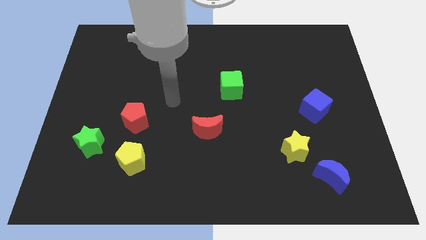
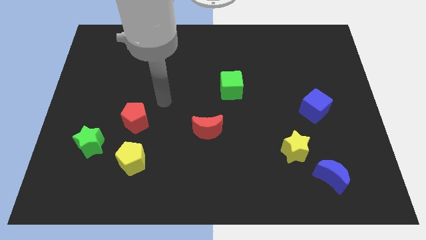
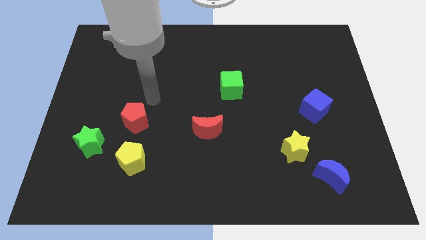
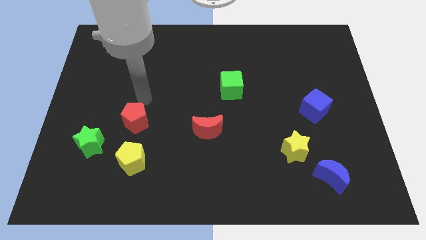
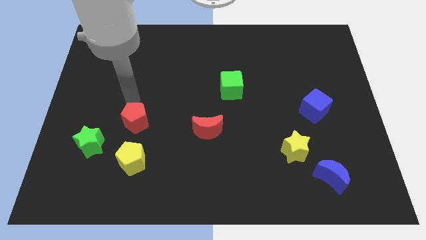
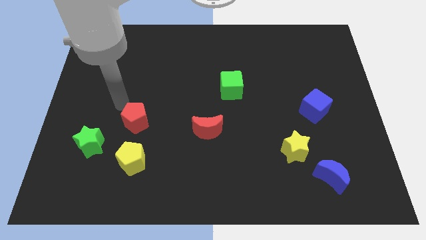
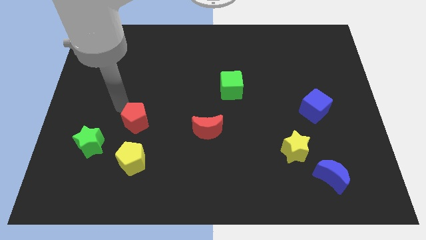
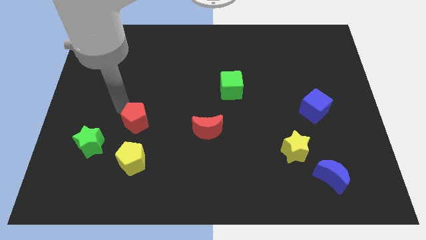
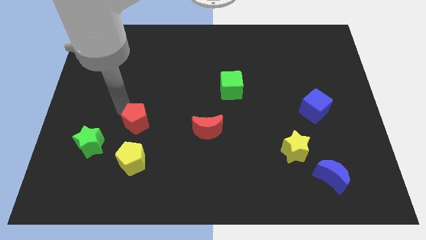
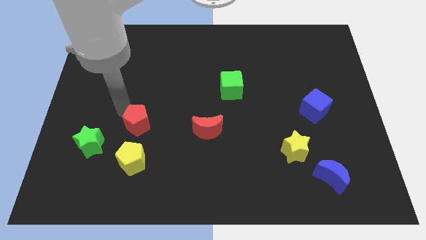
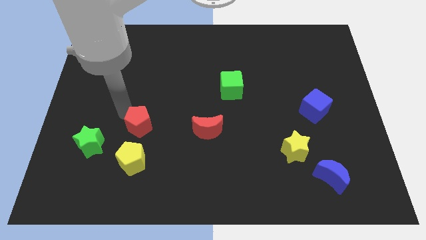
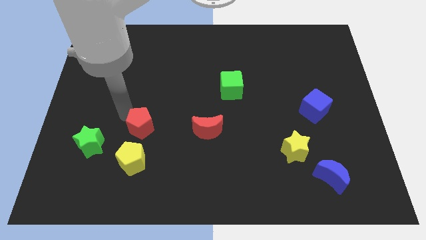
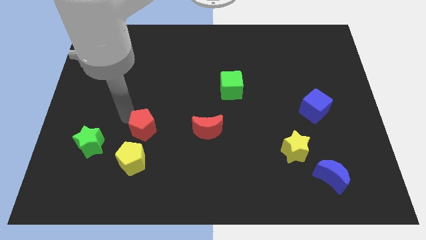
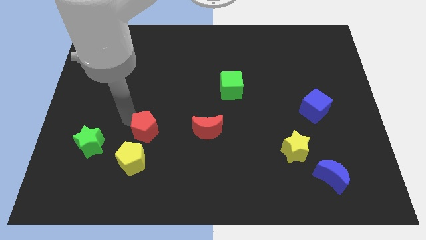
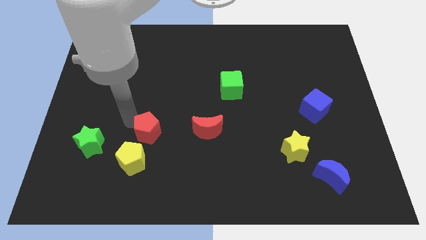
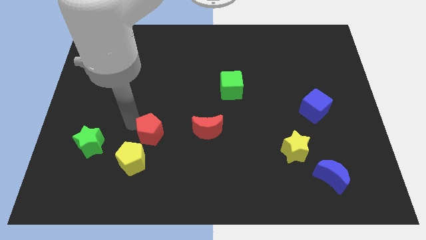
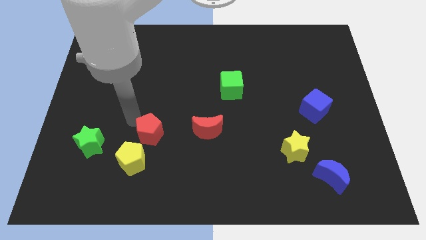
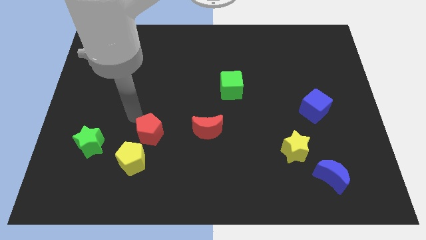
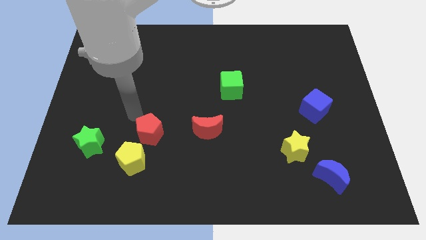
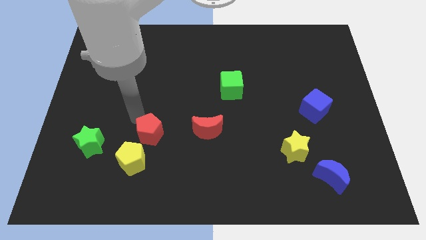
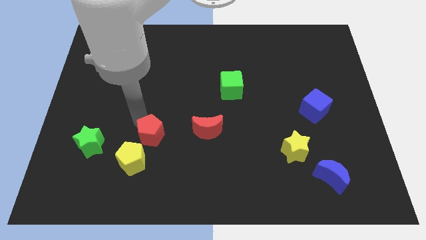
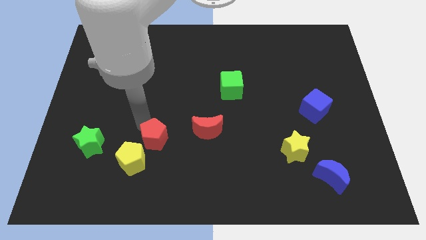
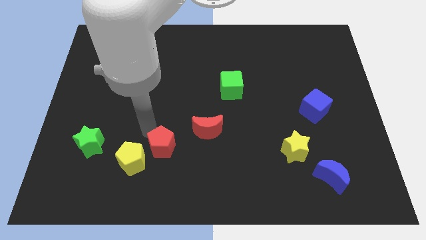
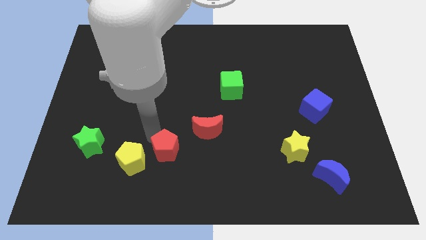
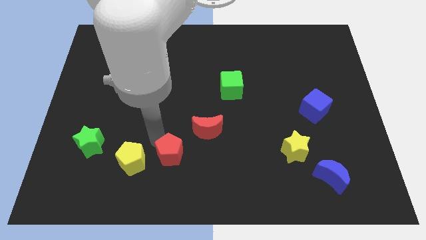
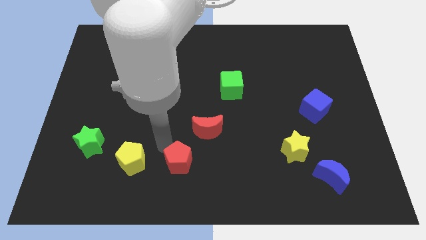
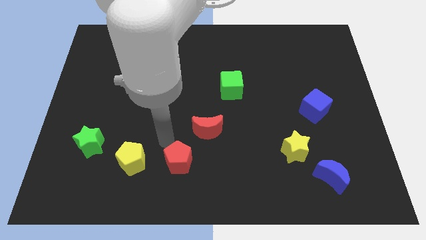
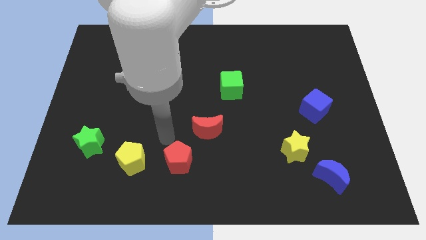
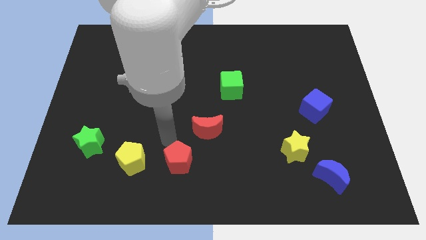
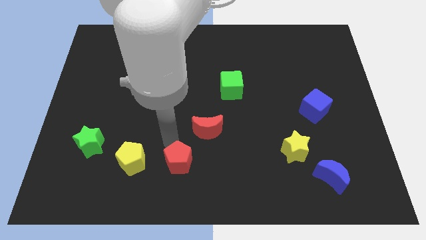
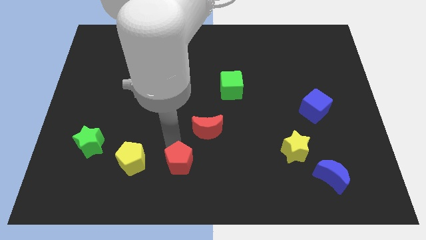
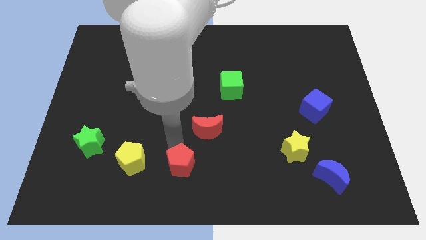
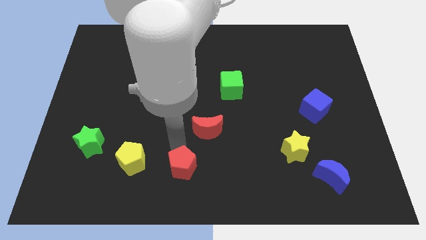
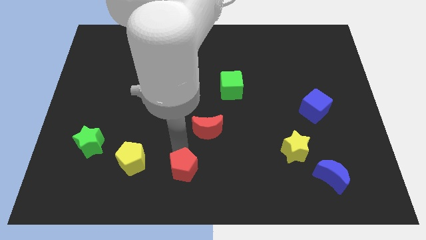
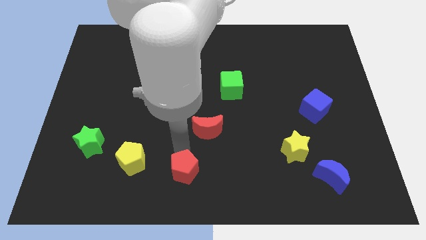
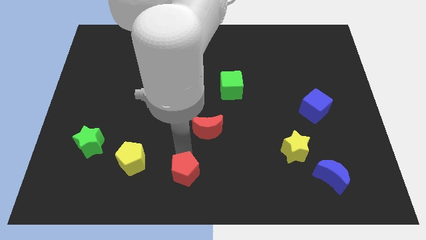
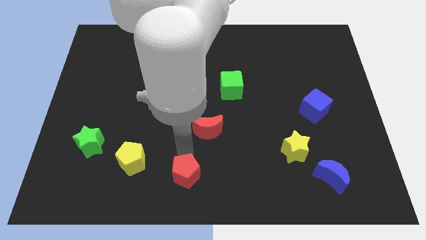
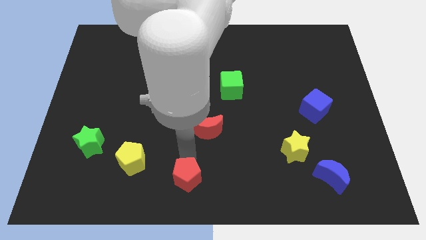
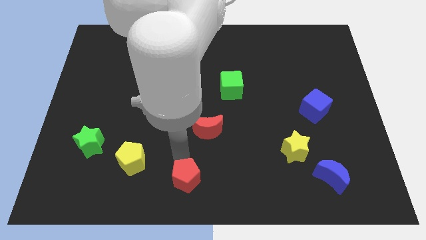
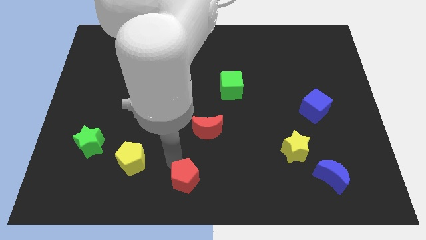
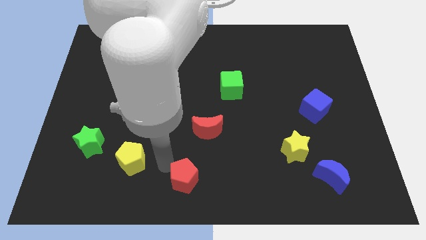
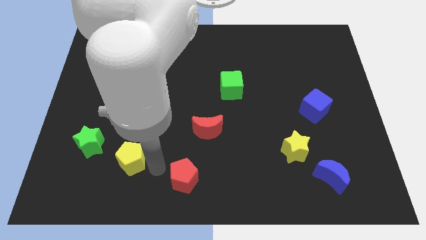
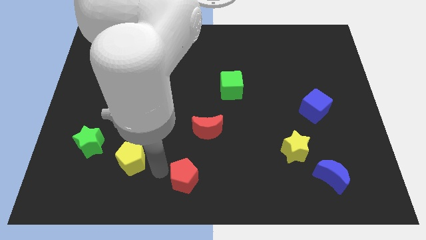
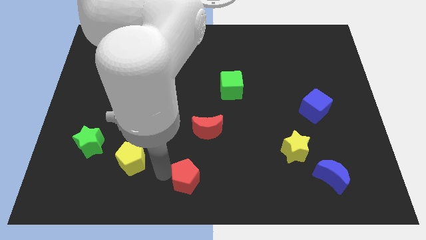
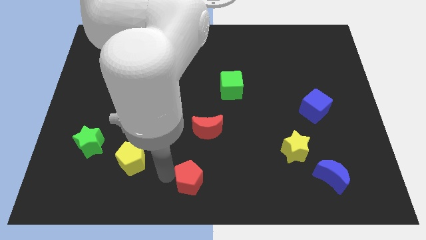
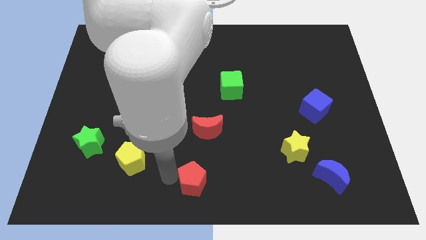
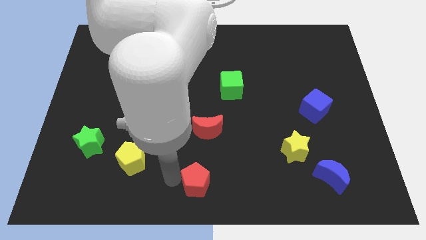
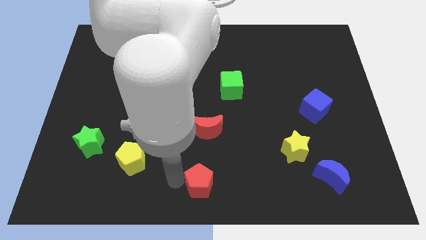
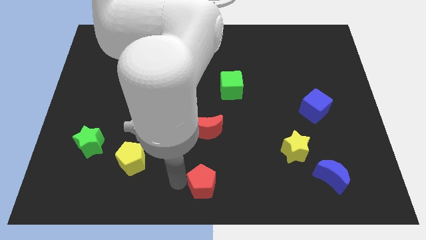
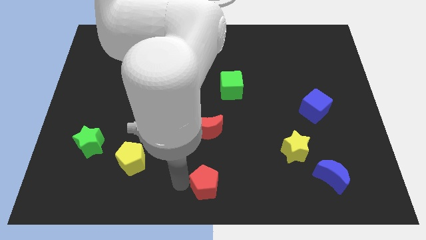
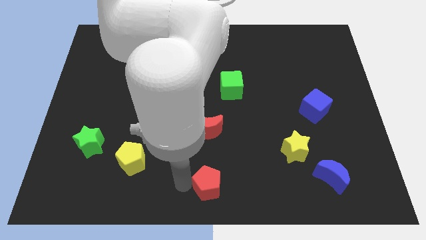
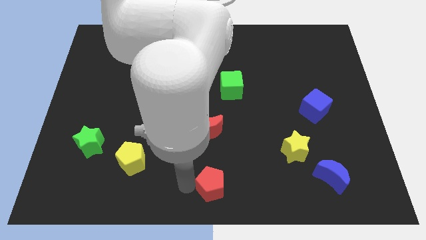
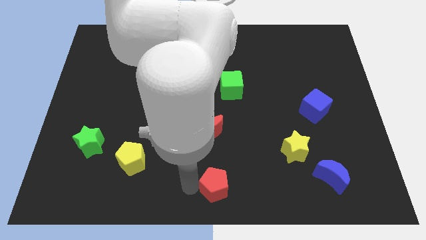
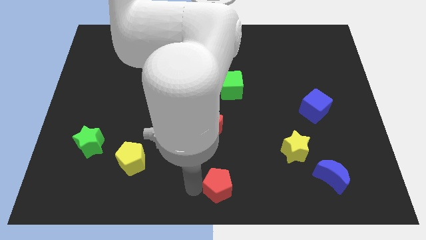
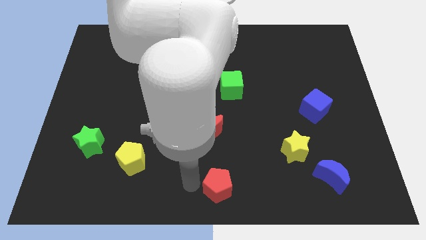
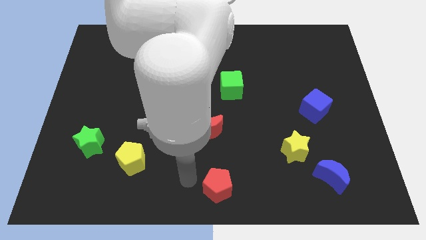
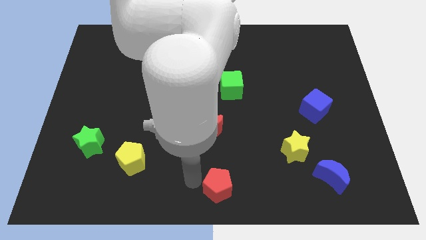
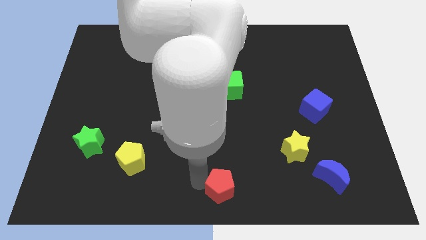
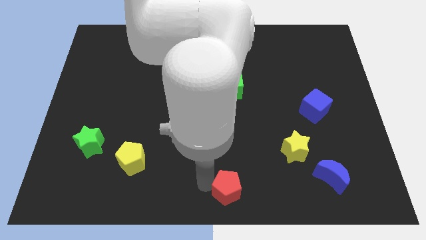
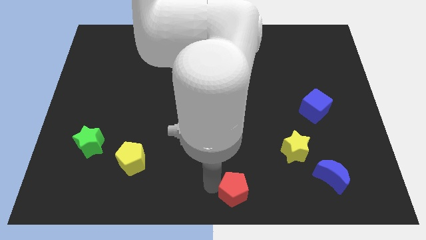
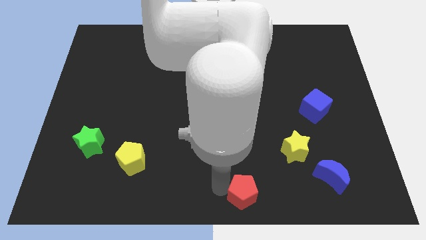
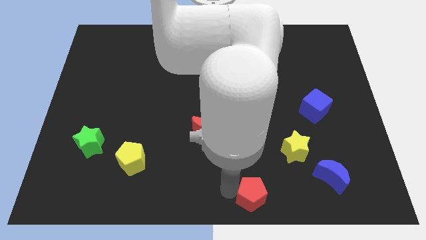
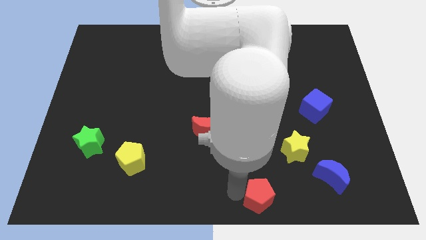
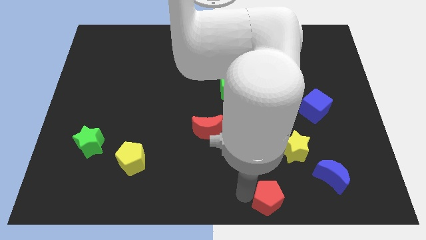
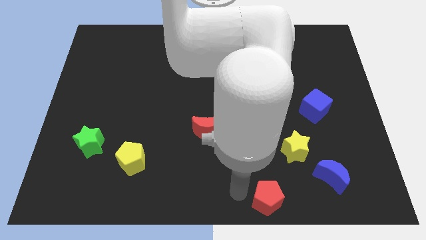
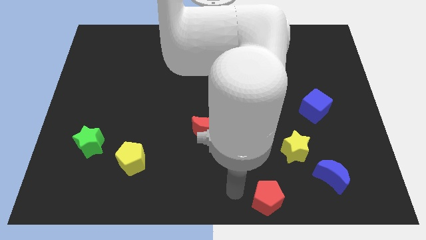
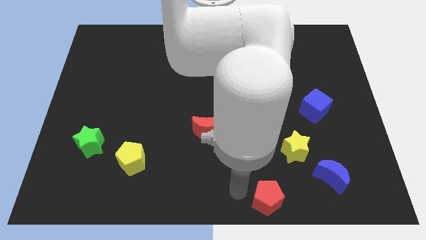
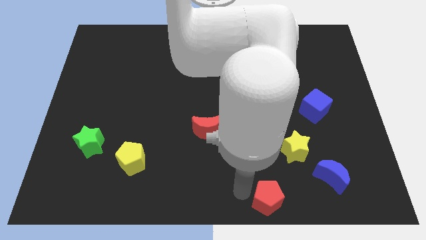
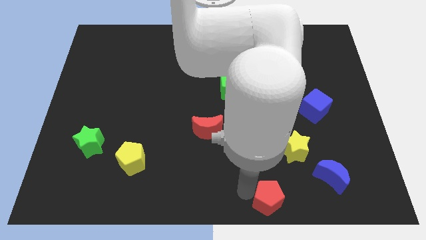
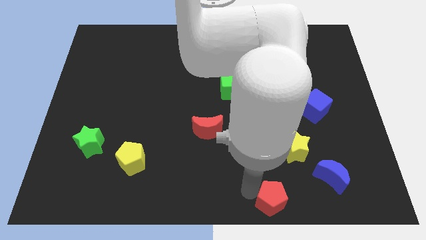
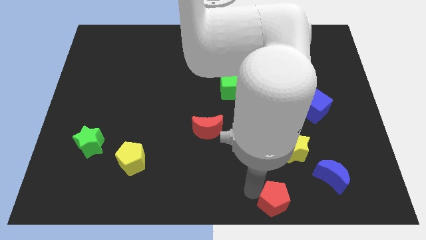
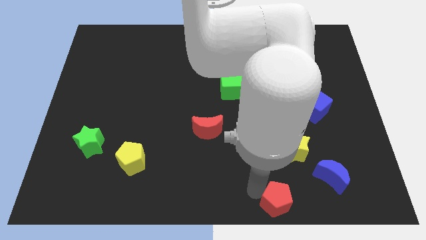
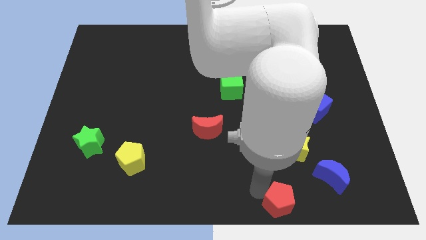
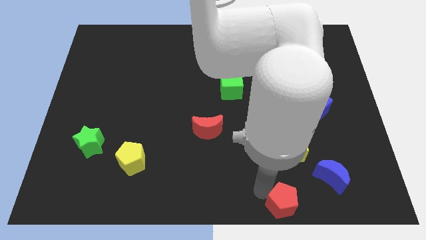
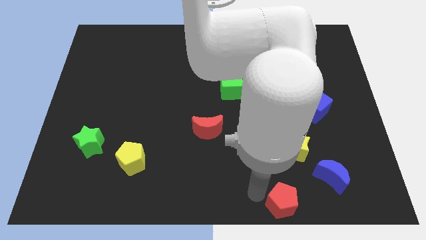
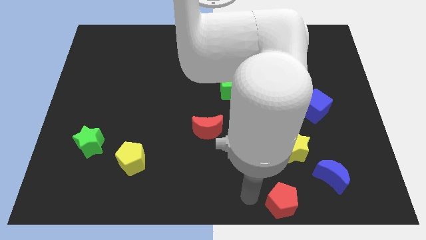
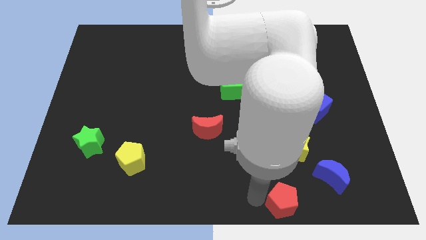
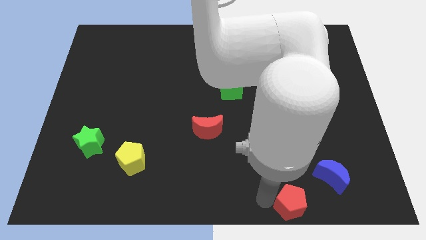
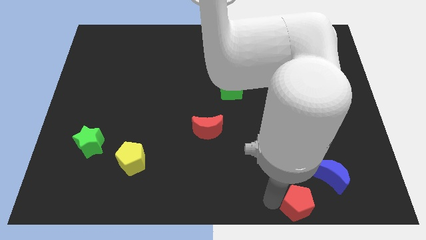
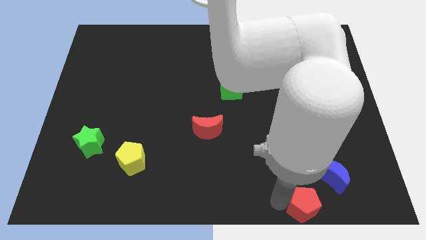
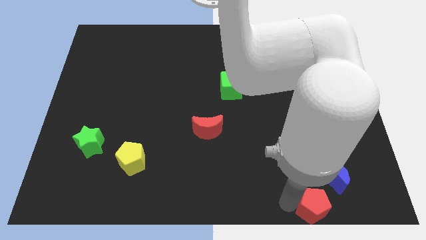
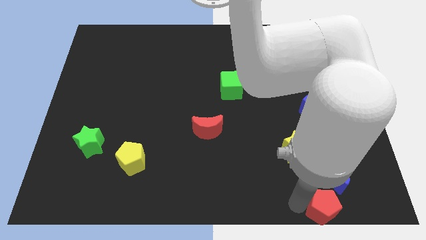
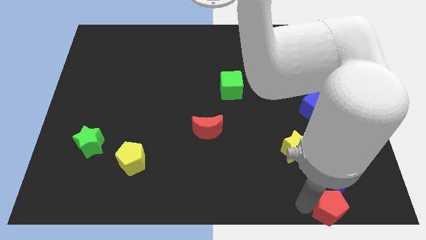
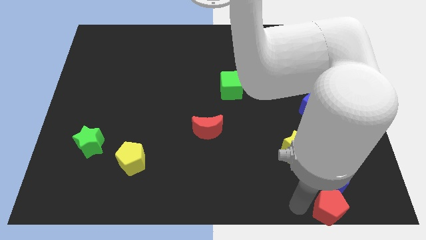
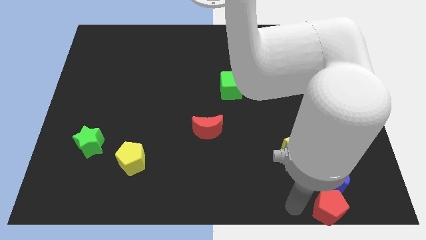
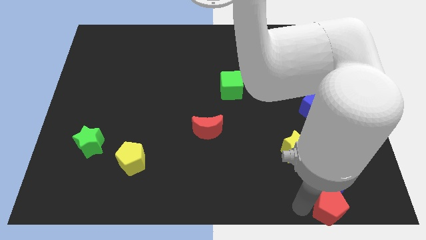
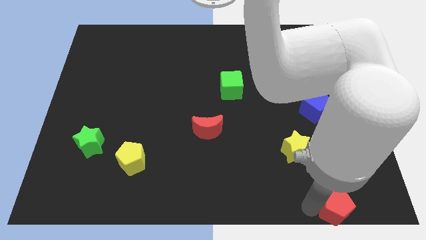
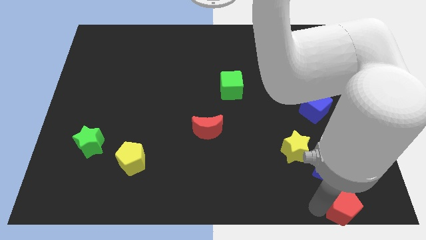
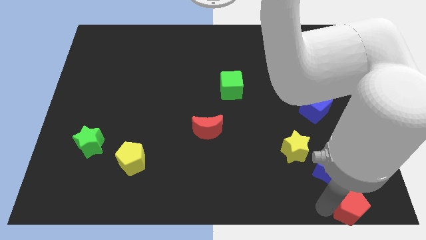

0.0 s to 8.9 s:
put the red pentagon to the bottom right corner
